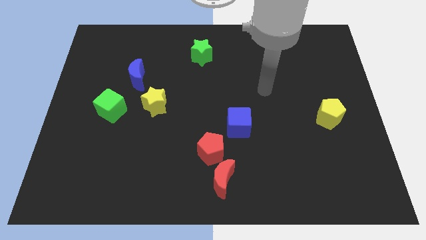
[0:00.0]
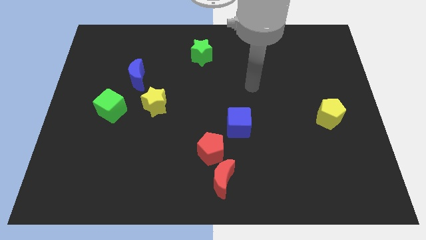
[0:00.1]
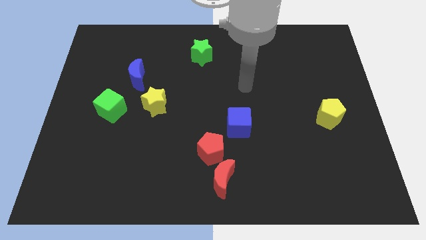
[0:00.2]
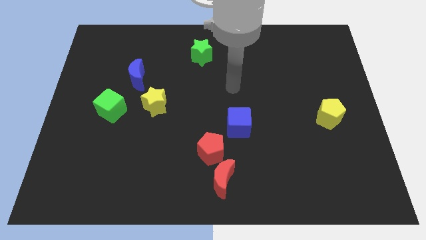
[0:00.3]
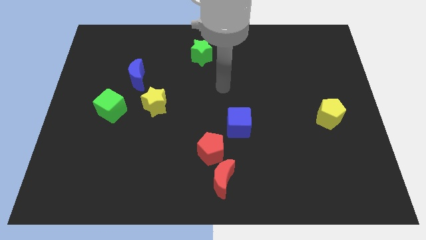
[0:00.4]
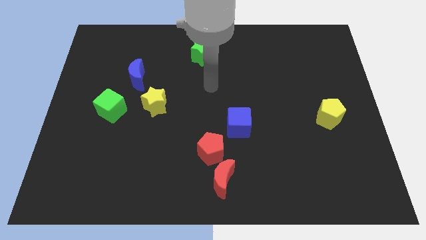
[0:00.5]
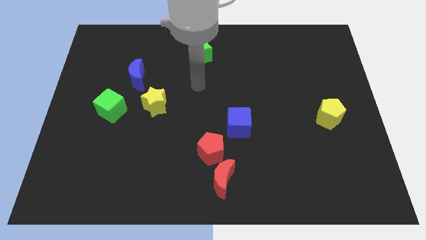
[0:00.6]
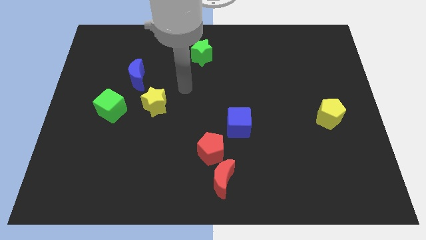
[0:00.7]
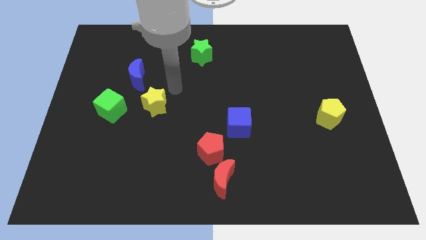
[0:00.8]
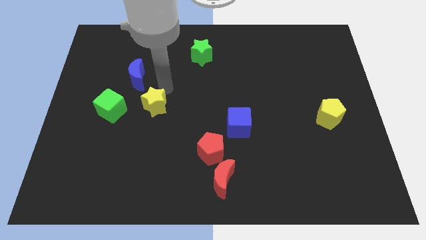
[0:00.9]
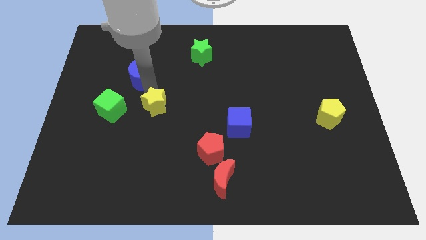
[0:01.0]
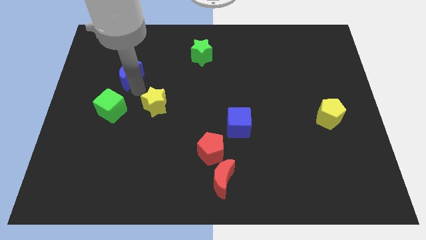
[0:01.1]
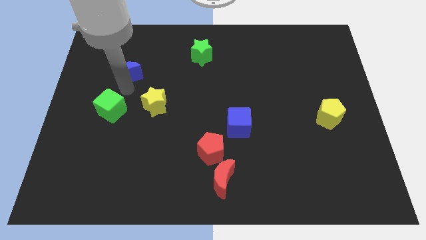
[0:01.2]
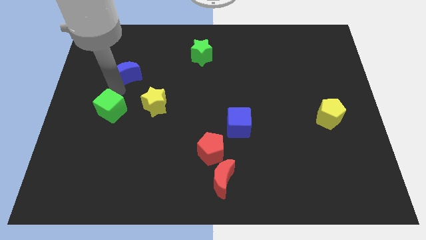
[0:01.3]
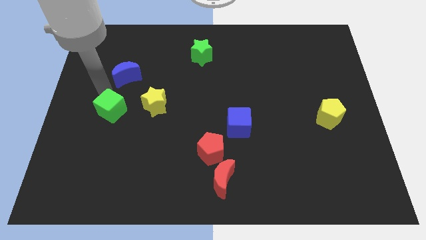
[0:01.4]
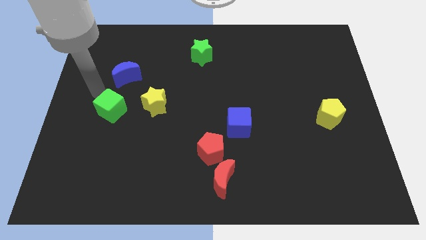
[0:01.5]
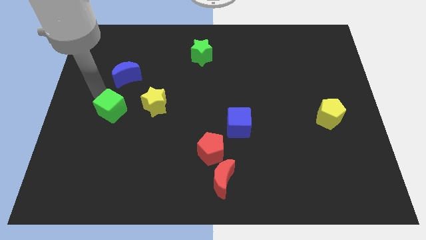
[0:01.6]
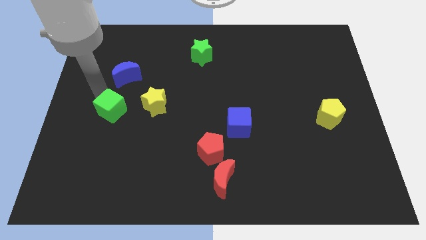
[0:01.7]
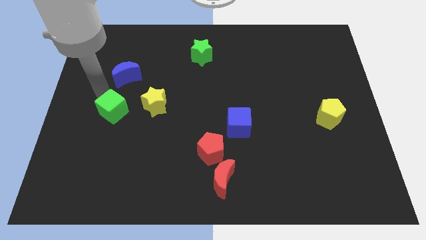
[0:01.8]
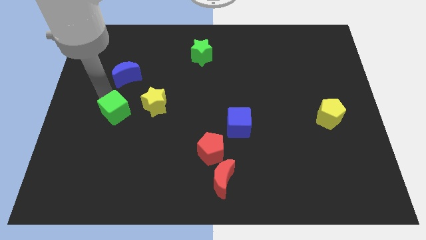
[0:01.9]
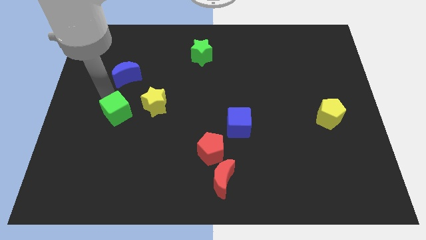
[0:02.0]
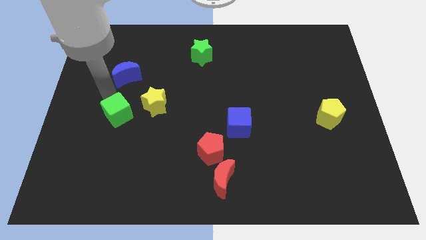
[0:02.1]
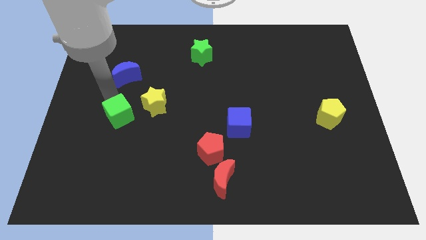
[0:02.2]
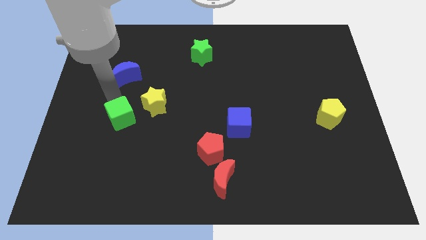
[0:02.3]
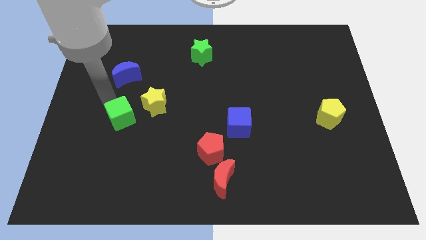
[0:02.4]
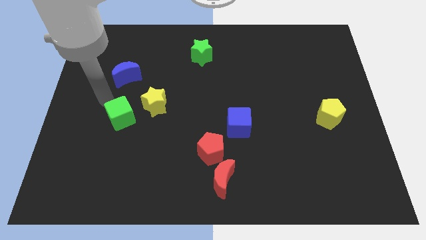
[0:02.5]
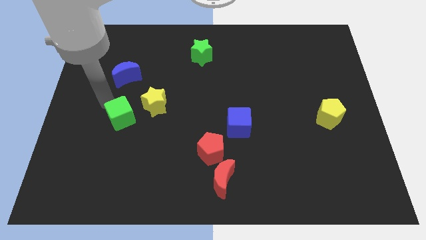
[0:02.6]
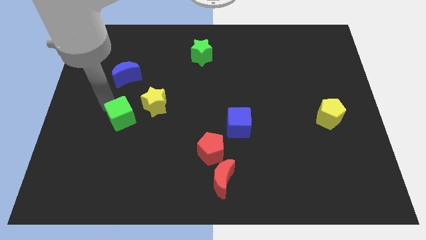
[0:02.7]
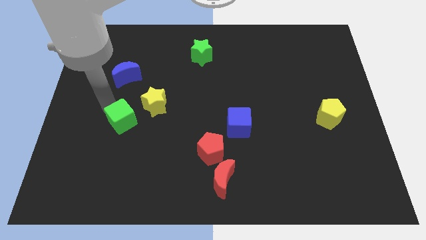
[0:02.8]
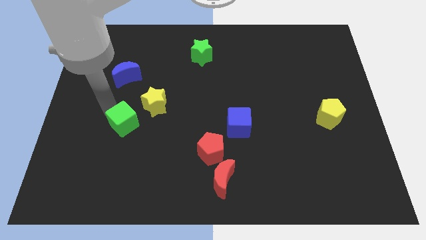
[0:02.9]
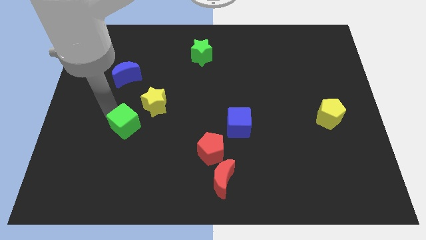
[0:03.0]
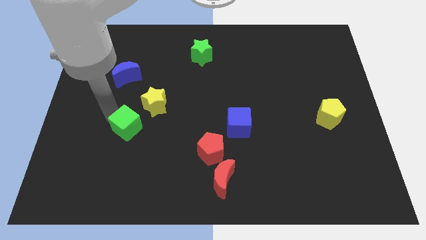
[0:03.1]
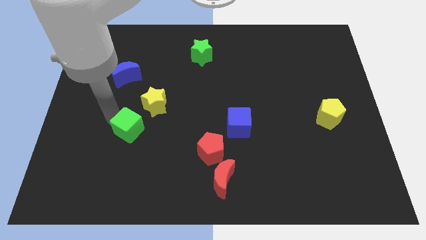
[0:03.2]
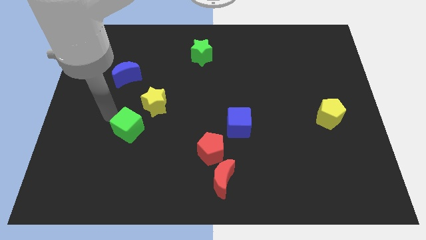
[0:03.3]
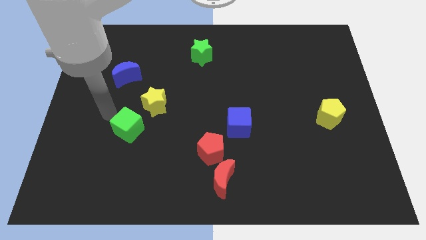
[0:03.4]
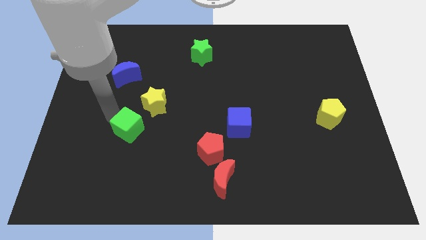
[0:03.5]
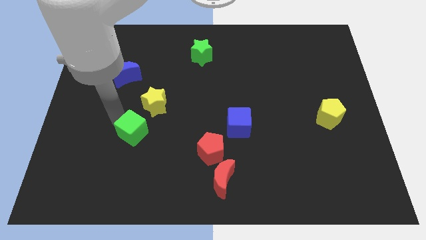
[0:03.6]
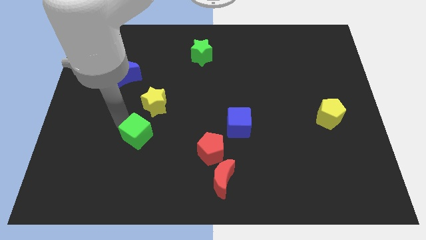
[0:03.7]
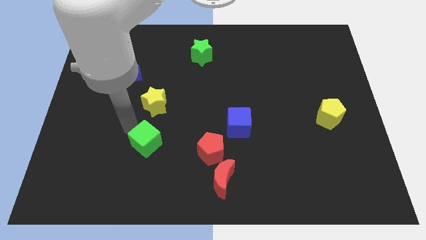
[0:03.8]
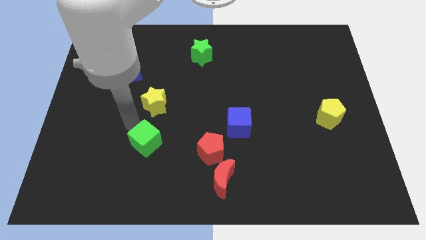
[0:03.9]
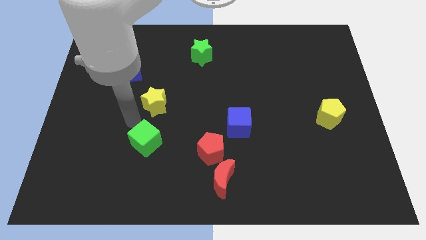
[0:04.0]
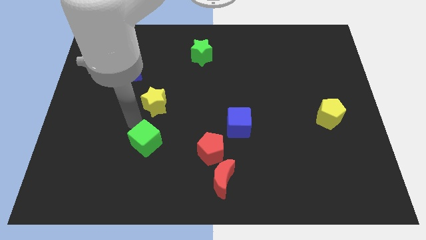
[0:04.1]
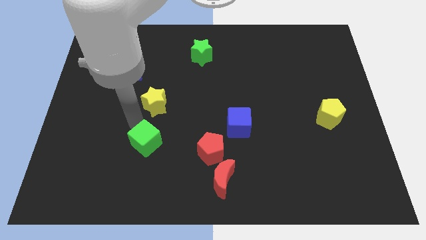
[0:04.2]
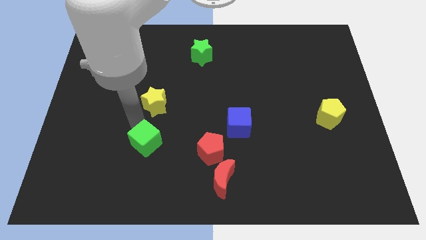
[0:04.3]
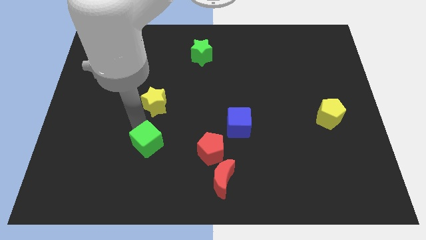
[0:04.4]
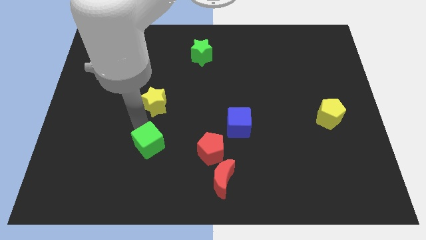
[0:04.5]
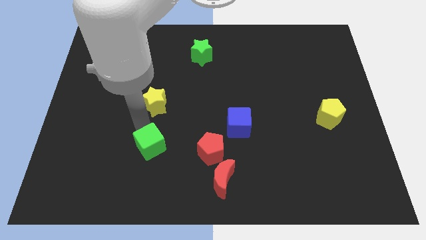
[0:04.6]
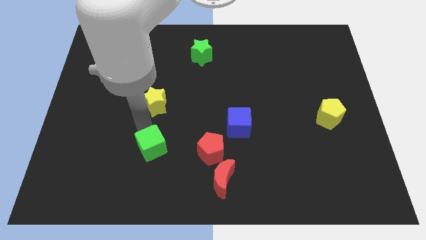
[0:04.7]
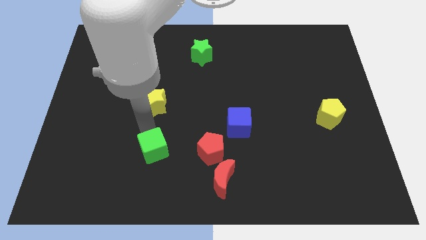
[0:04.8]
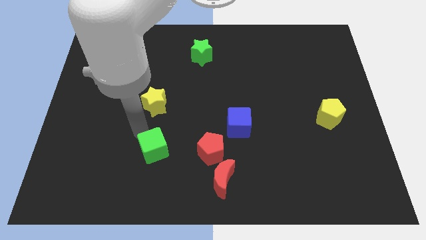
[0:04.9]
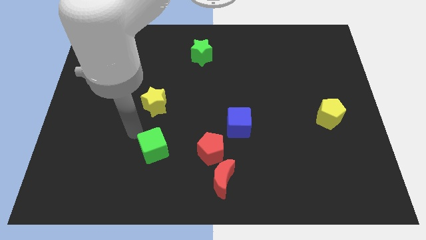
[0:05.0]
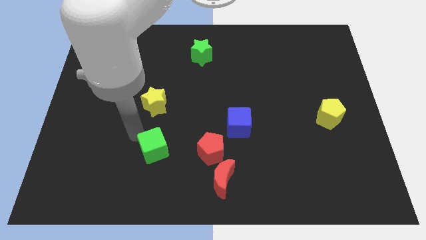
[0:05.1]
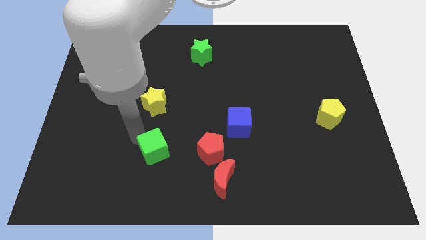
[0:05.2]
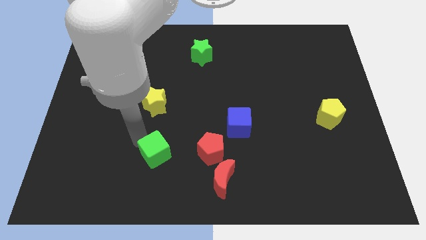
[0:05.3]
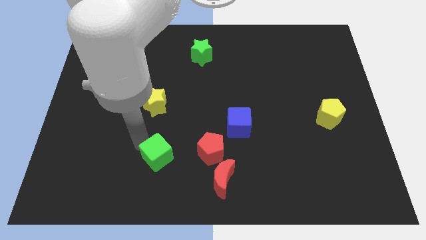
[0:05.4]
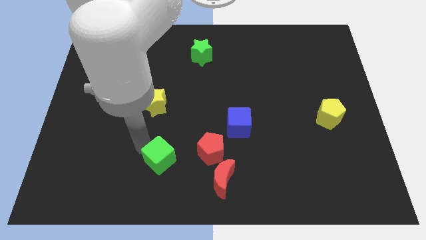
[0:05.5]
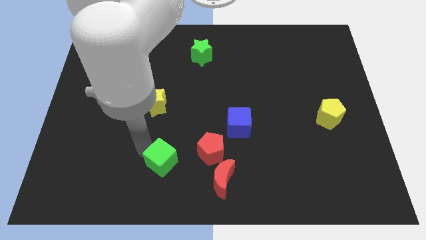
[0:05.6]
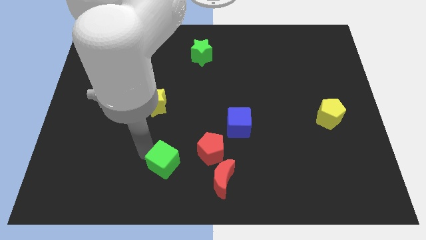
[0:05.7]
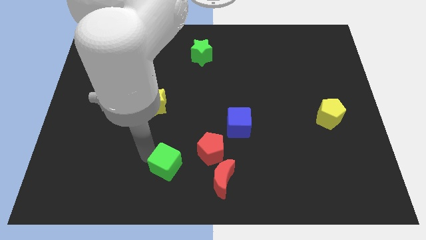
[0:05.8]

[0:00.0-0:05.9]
move the green cube to the bottom left of the red pentagon

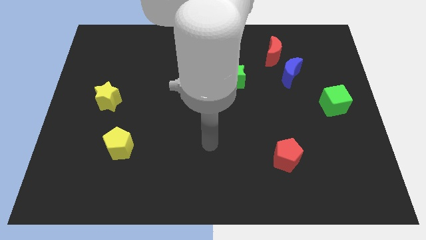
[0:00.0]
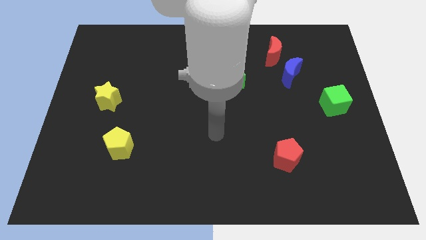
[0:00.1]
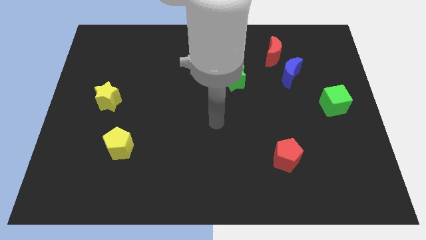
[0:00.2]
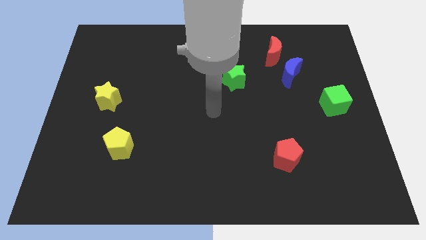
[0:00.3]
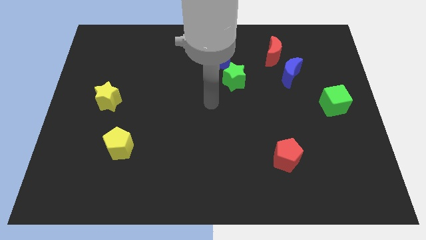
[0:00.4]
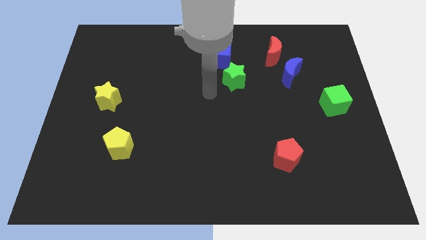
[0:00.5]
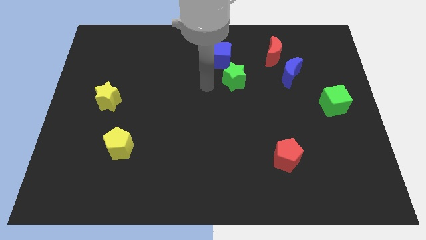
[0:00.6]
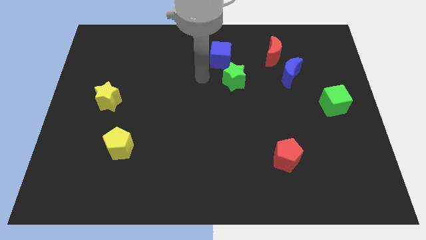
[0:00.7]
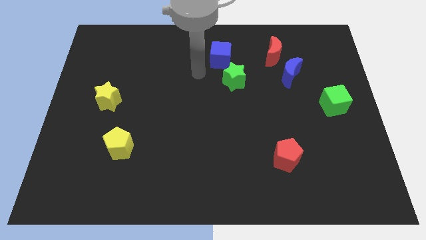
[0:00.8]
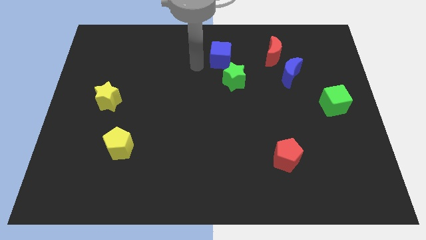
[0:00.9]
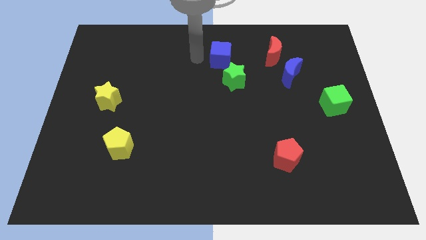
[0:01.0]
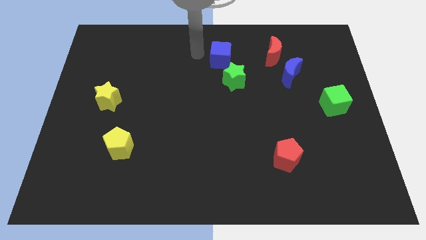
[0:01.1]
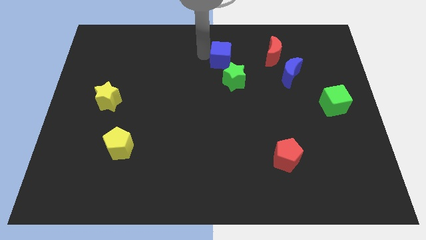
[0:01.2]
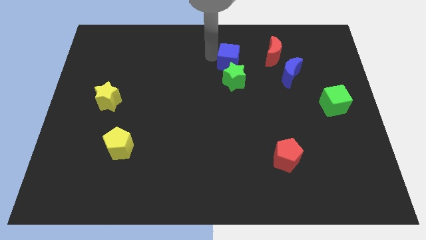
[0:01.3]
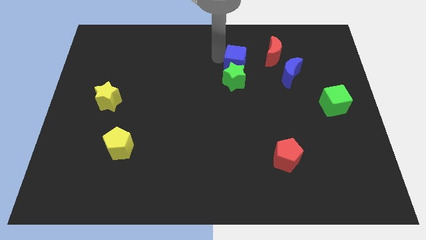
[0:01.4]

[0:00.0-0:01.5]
slide the blue cube diagonally up and to the right of the green star

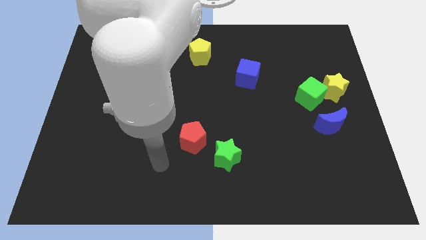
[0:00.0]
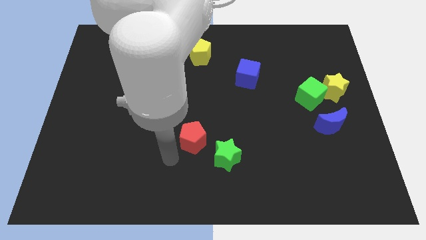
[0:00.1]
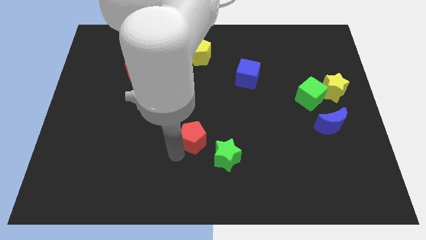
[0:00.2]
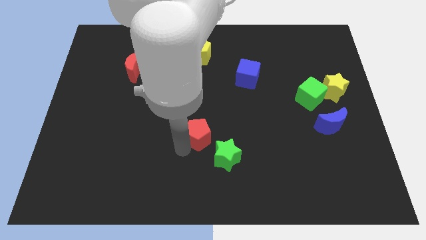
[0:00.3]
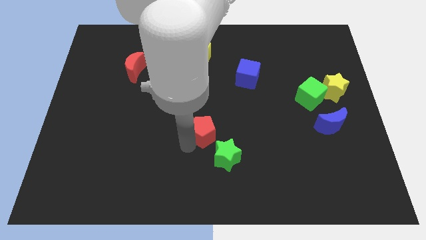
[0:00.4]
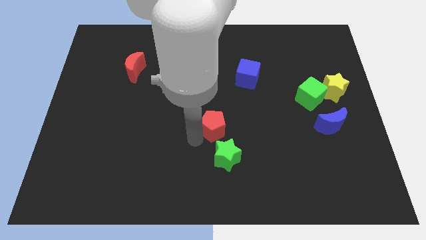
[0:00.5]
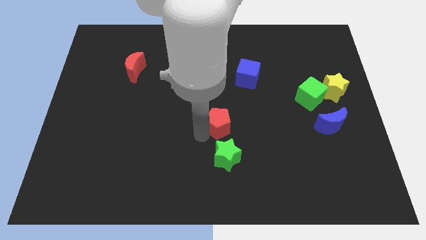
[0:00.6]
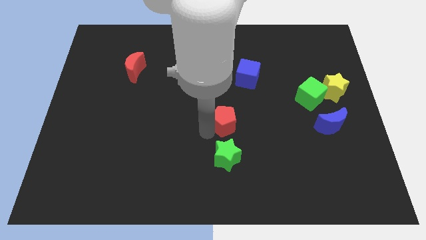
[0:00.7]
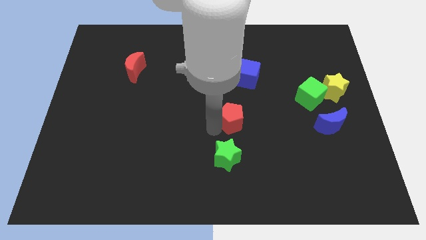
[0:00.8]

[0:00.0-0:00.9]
move the red pentagon below the blue cube
